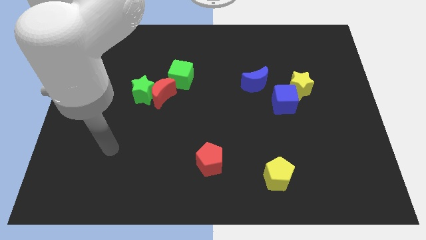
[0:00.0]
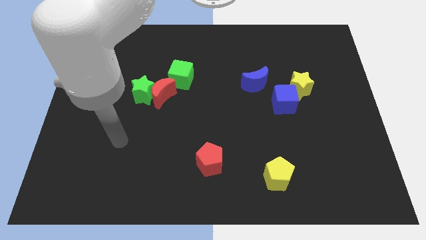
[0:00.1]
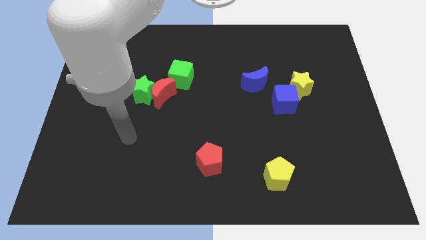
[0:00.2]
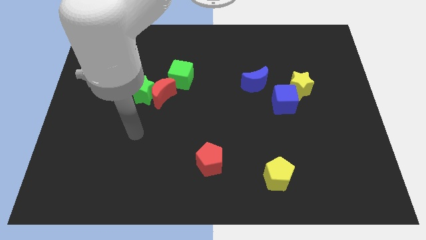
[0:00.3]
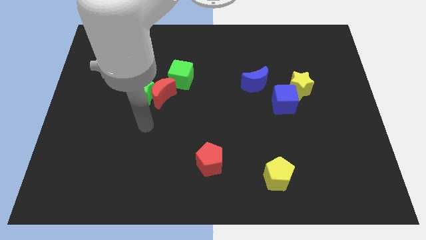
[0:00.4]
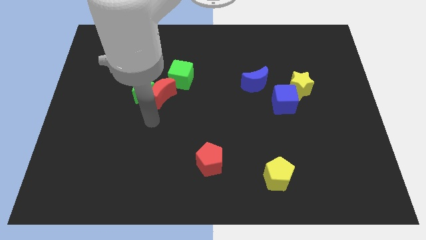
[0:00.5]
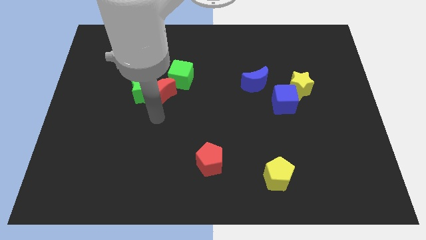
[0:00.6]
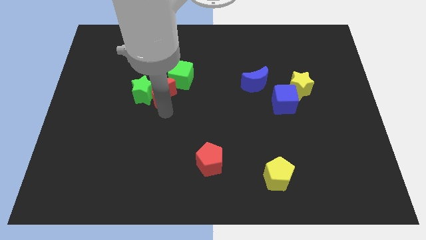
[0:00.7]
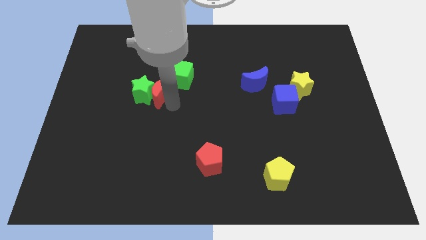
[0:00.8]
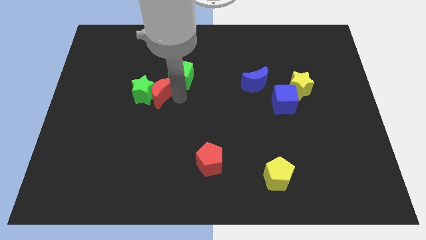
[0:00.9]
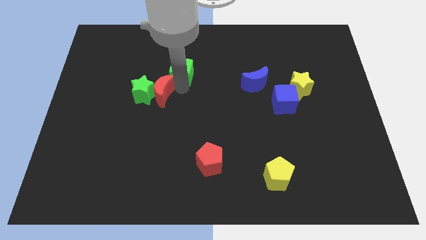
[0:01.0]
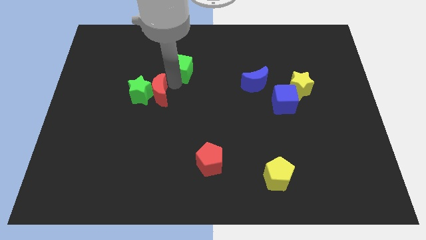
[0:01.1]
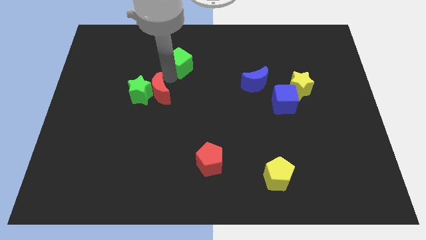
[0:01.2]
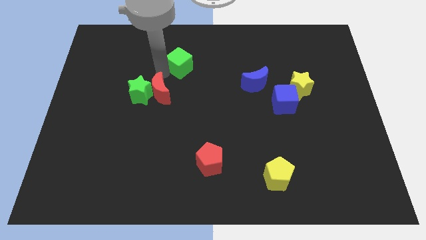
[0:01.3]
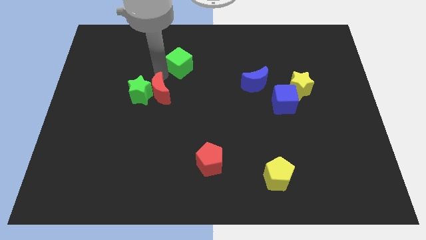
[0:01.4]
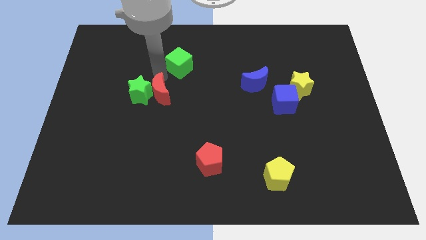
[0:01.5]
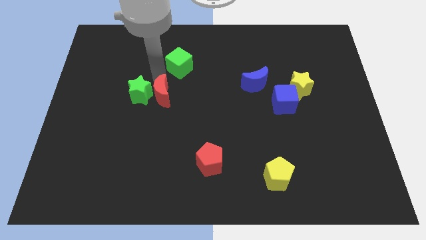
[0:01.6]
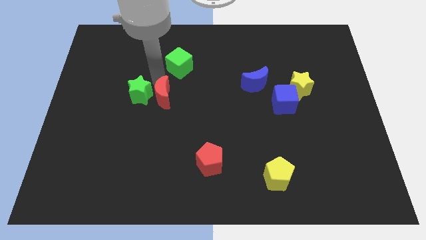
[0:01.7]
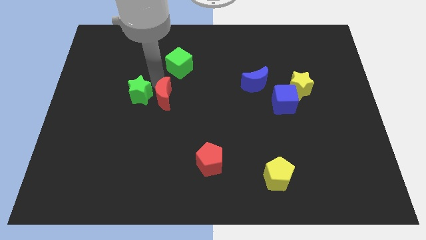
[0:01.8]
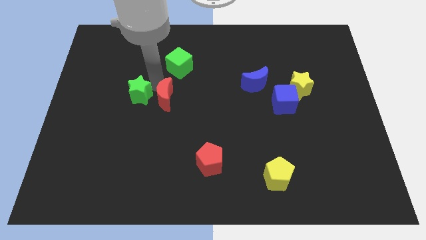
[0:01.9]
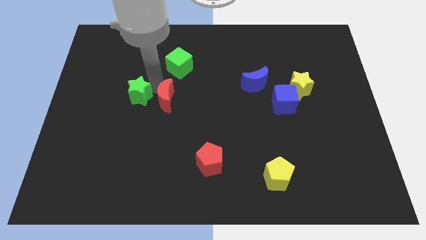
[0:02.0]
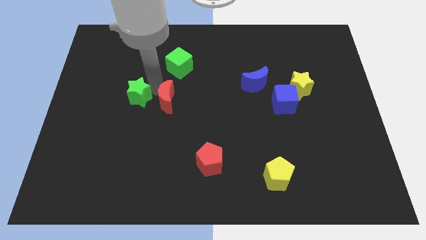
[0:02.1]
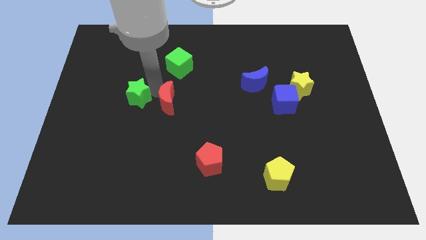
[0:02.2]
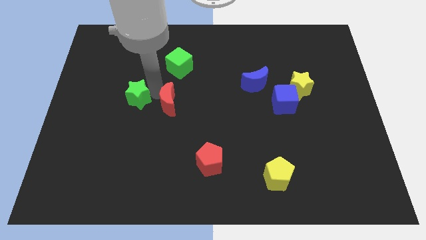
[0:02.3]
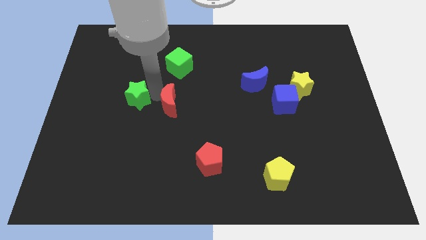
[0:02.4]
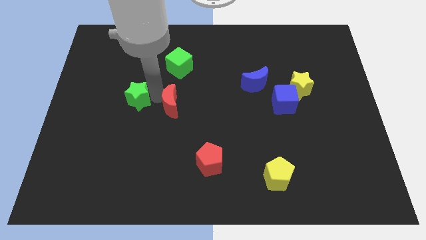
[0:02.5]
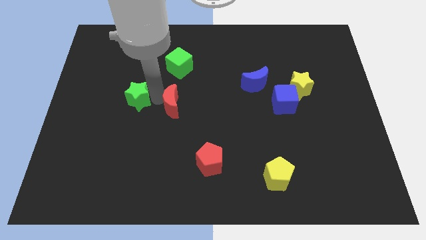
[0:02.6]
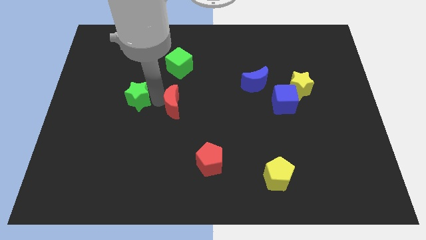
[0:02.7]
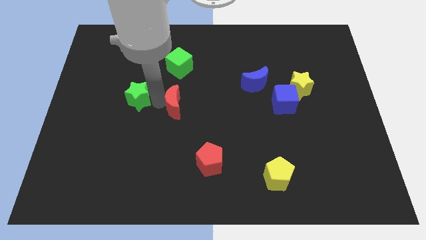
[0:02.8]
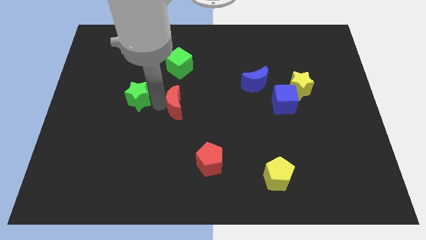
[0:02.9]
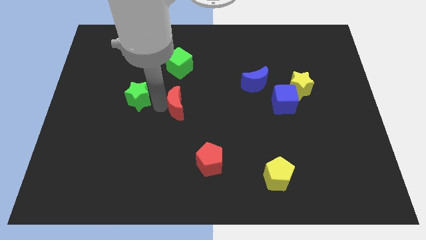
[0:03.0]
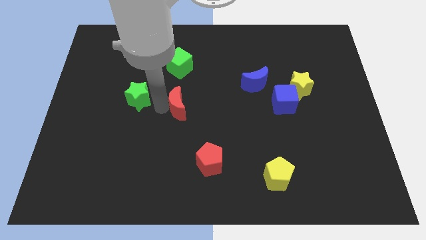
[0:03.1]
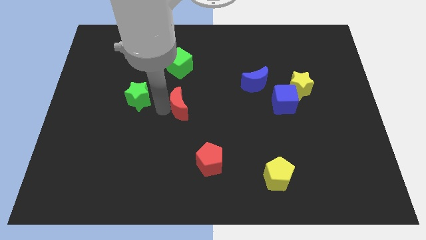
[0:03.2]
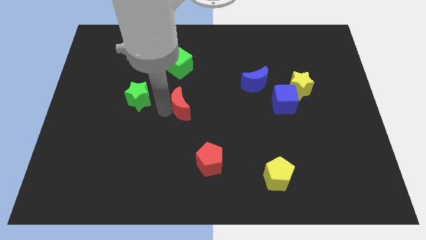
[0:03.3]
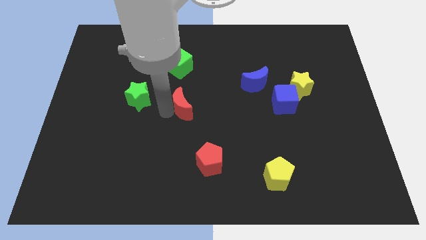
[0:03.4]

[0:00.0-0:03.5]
move the red moon away from the green star and green cube

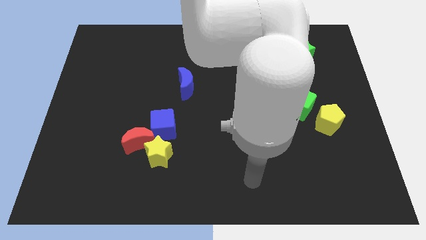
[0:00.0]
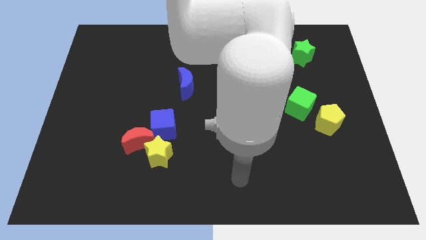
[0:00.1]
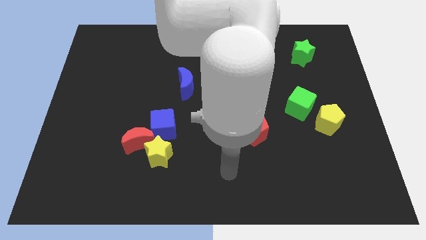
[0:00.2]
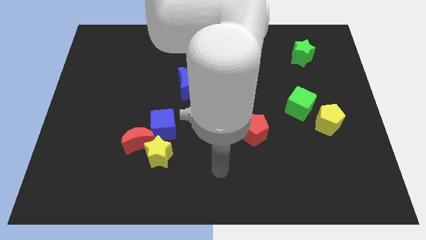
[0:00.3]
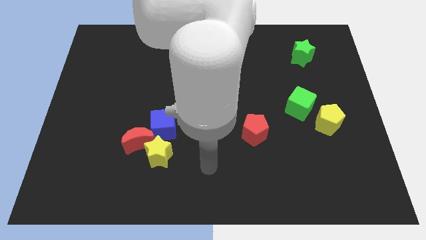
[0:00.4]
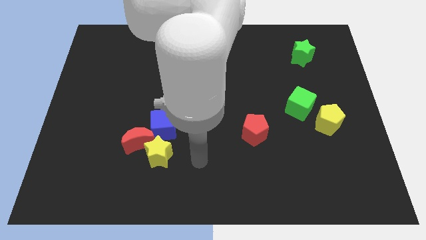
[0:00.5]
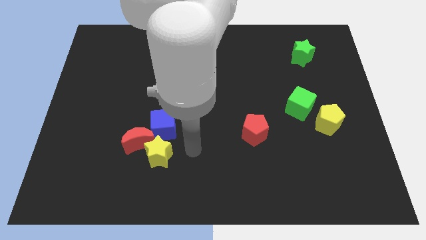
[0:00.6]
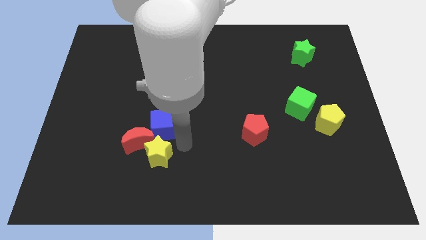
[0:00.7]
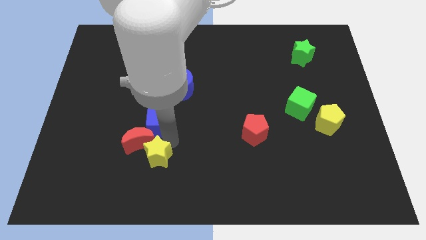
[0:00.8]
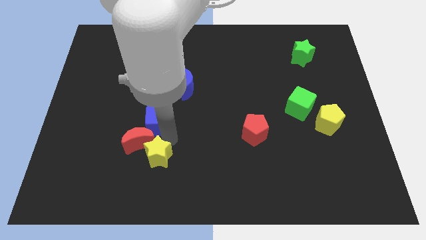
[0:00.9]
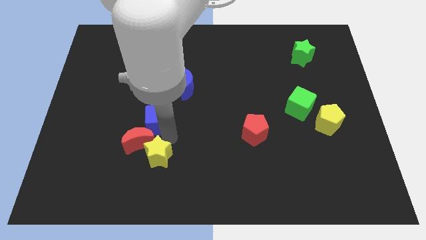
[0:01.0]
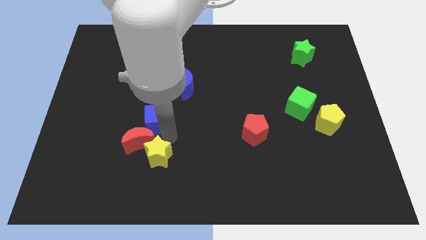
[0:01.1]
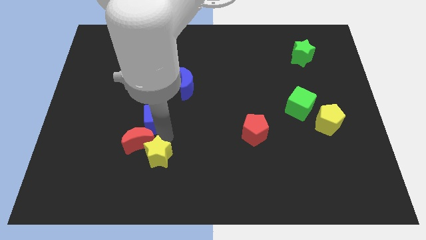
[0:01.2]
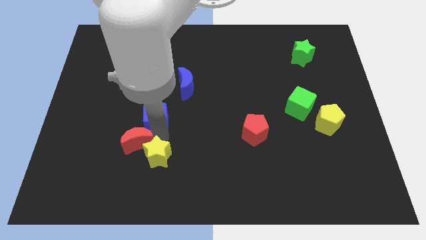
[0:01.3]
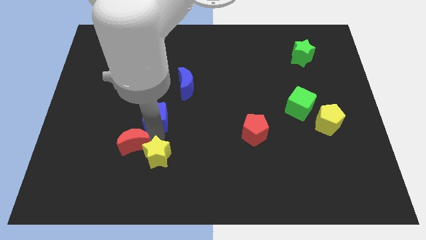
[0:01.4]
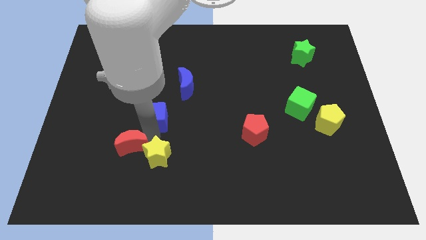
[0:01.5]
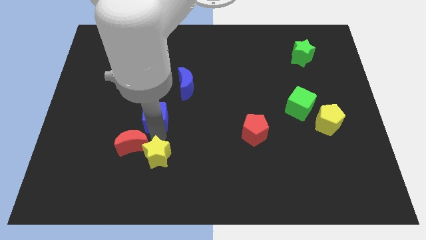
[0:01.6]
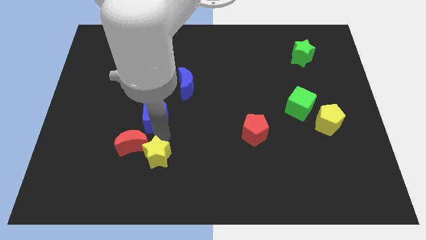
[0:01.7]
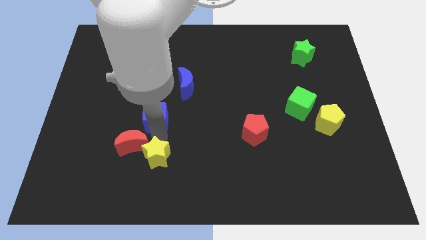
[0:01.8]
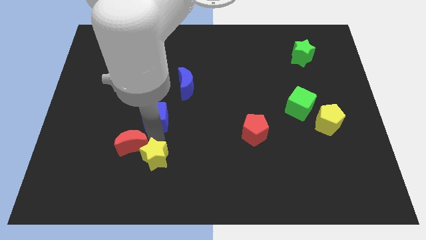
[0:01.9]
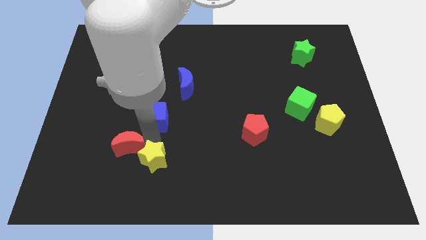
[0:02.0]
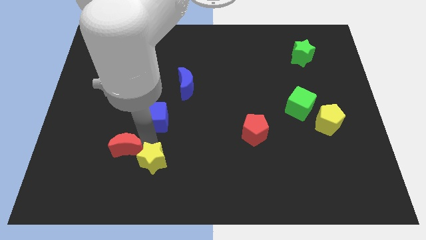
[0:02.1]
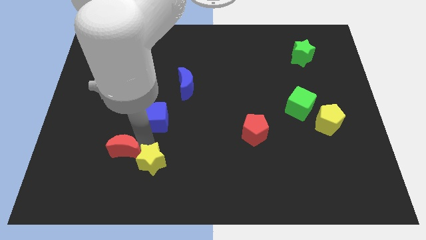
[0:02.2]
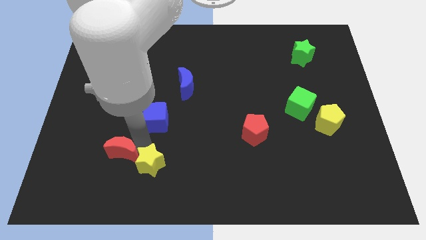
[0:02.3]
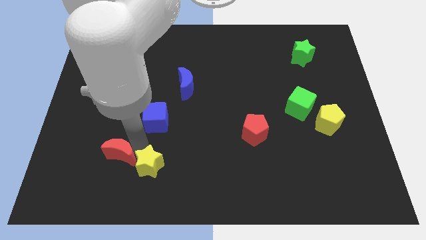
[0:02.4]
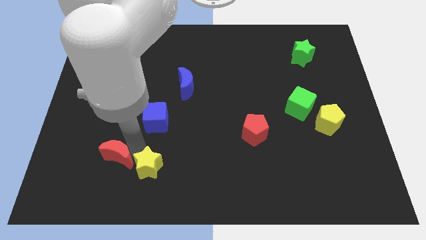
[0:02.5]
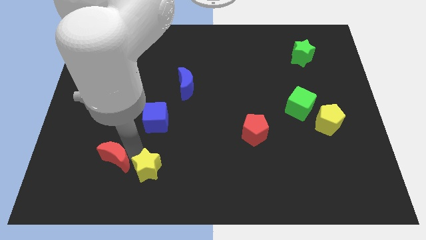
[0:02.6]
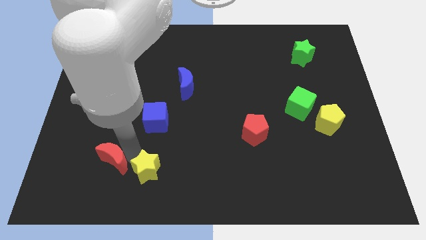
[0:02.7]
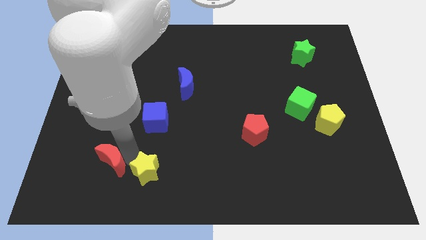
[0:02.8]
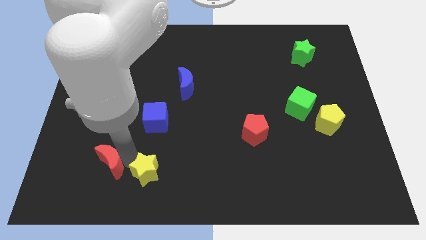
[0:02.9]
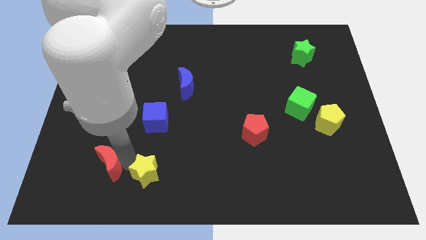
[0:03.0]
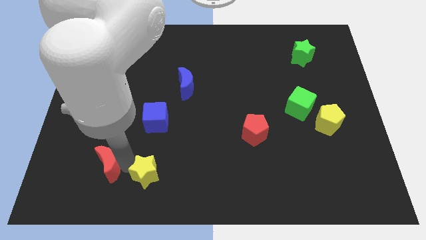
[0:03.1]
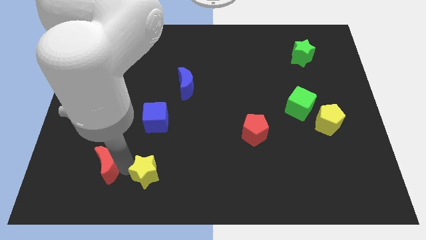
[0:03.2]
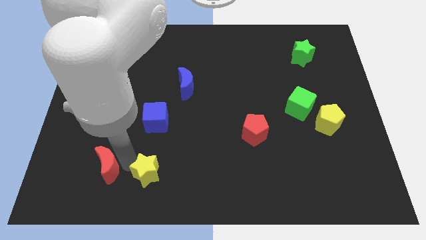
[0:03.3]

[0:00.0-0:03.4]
separate the red moon from the yellow star and blue cube

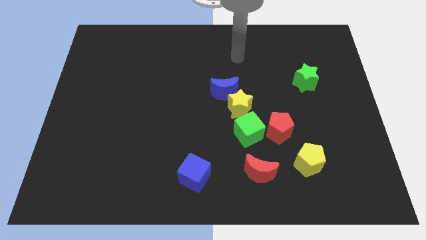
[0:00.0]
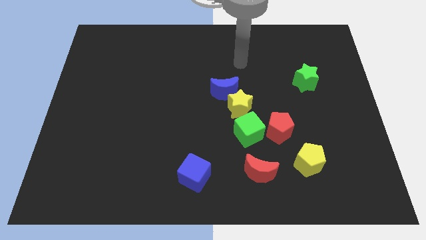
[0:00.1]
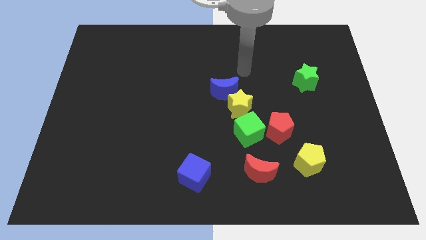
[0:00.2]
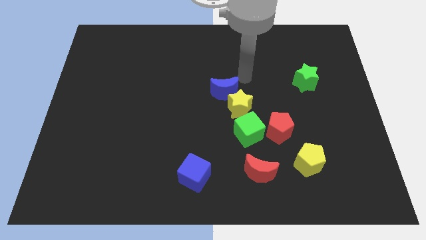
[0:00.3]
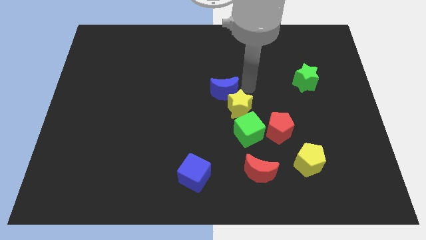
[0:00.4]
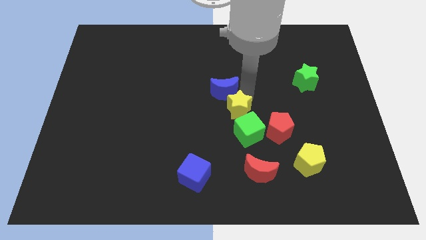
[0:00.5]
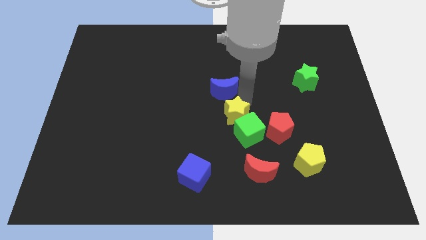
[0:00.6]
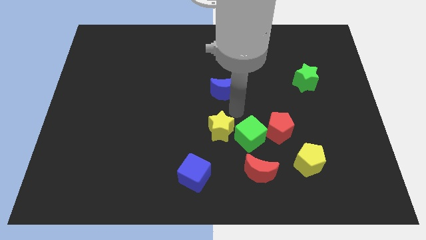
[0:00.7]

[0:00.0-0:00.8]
separate the blue moon from the yellow star

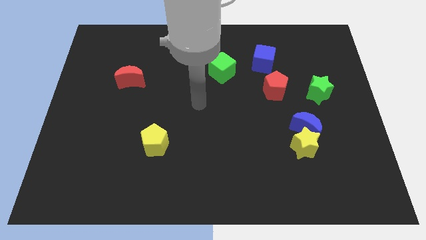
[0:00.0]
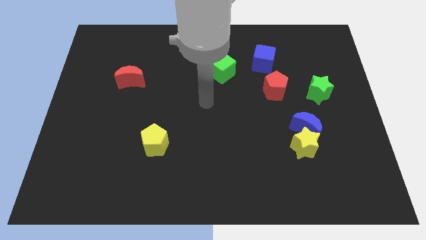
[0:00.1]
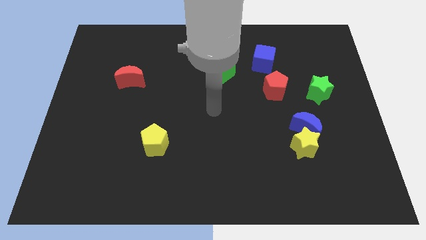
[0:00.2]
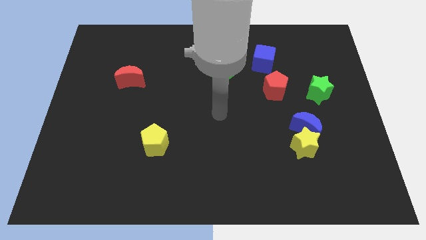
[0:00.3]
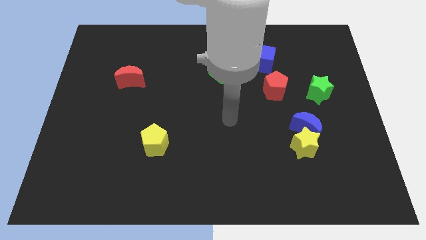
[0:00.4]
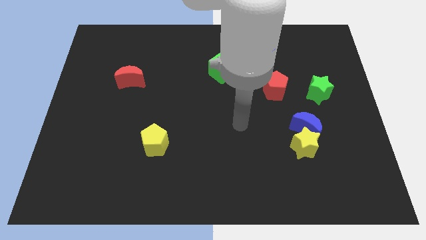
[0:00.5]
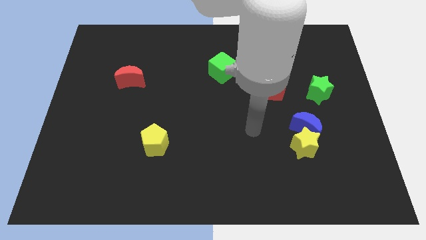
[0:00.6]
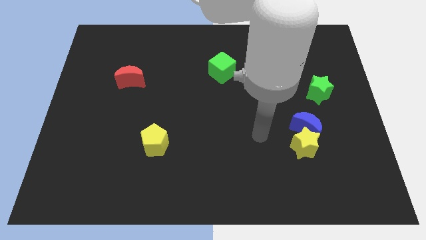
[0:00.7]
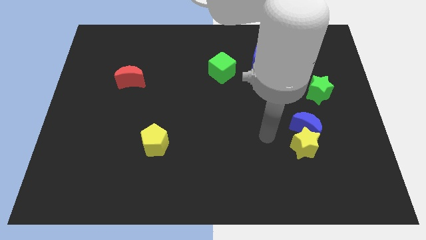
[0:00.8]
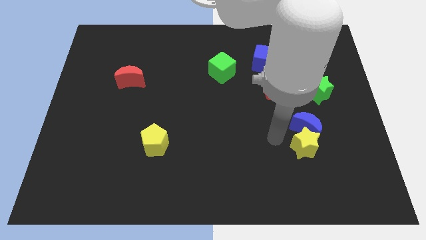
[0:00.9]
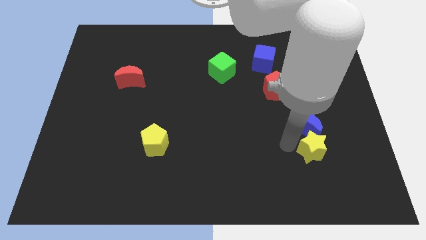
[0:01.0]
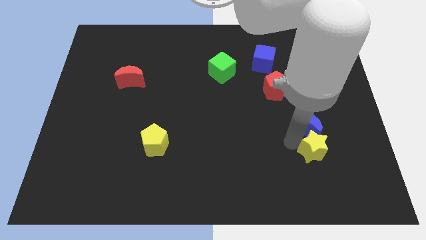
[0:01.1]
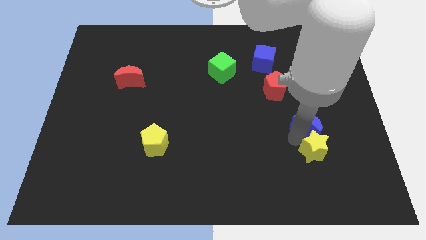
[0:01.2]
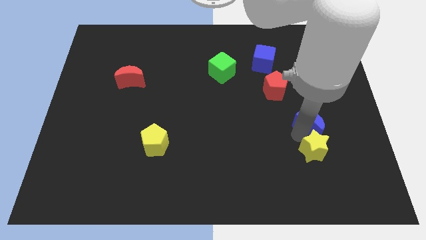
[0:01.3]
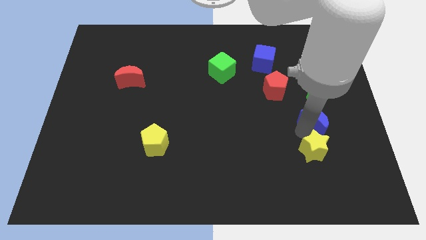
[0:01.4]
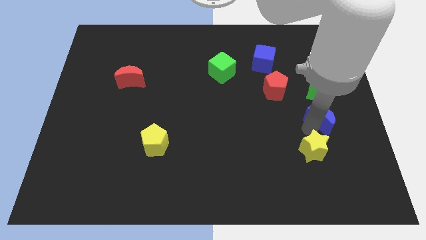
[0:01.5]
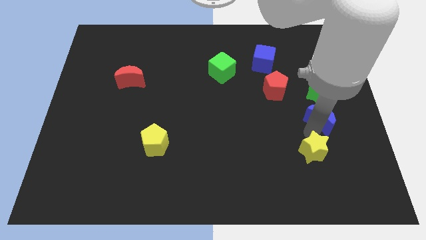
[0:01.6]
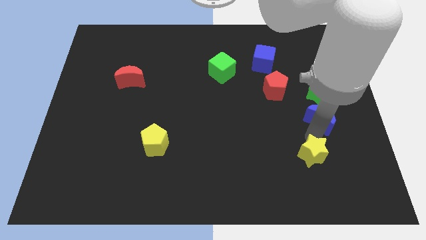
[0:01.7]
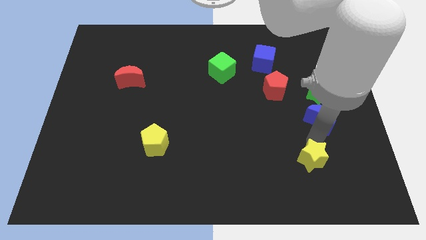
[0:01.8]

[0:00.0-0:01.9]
move the blue moon away from the yellow star
